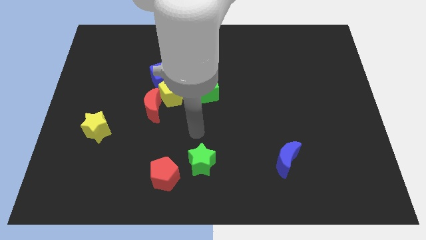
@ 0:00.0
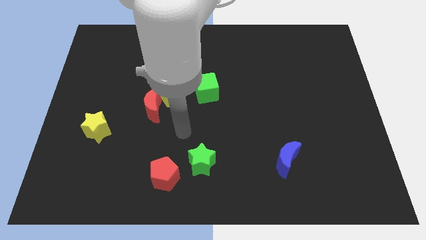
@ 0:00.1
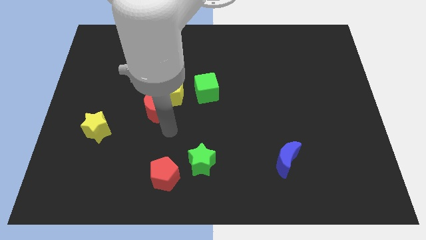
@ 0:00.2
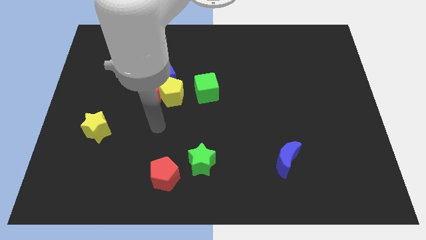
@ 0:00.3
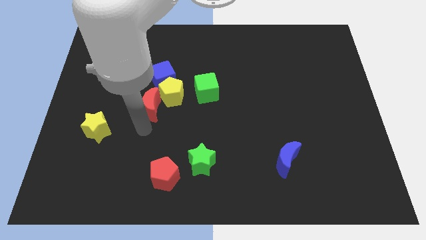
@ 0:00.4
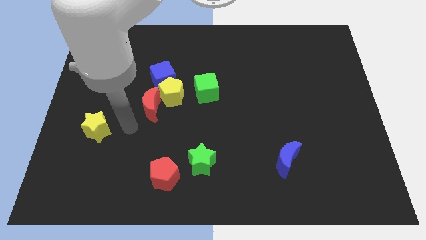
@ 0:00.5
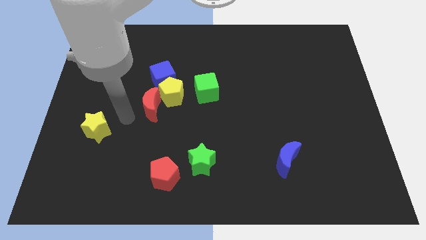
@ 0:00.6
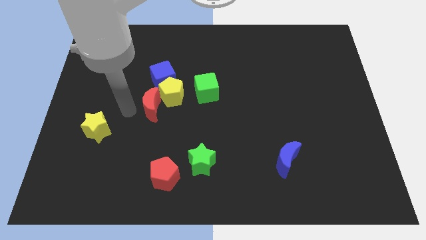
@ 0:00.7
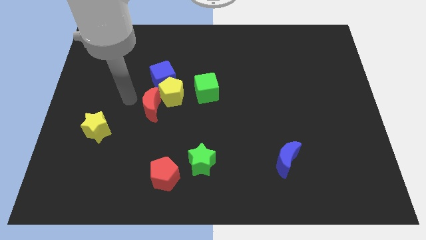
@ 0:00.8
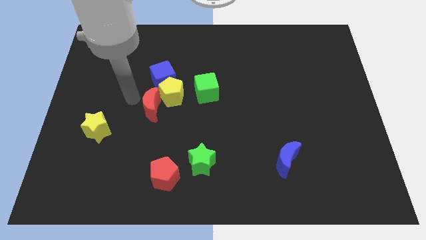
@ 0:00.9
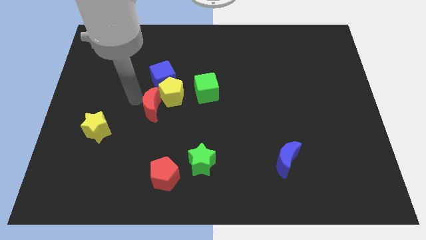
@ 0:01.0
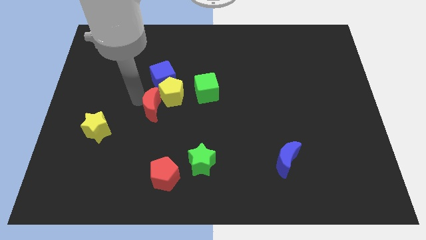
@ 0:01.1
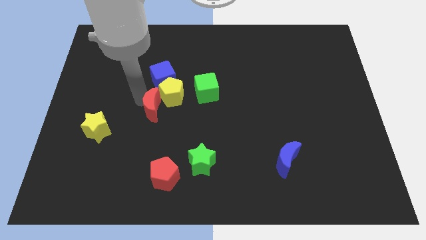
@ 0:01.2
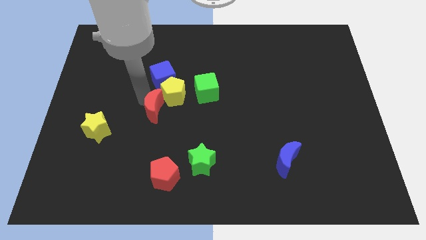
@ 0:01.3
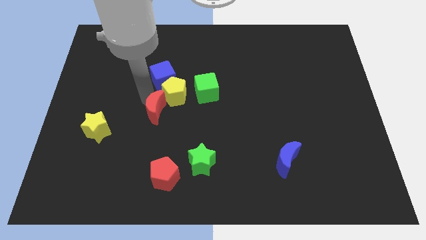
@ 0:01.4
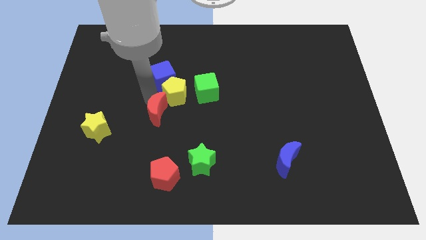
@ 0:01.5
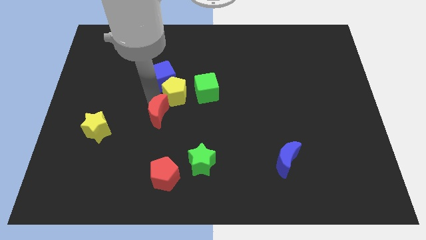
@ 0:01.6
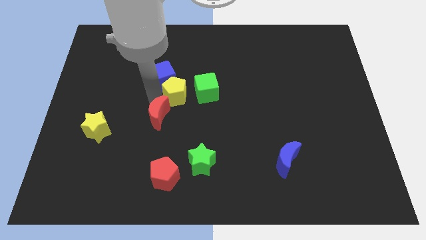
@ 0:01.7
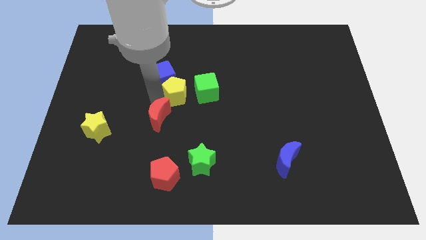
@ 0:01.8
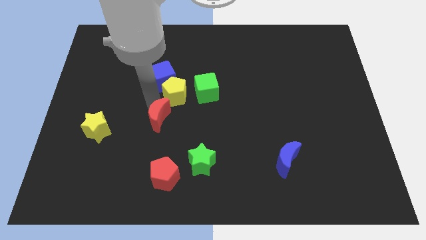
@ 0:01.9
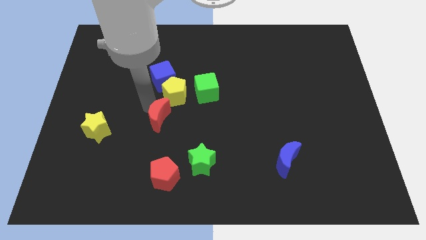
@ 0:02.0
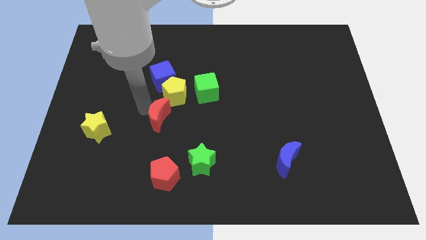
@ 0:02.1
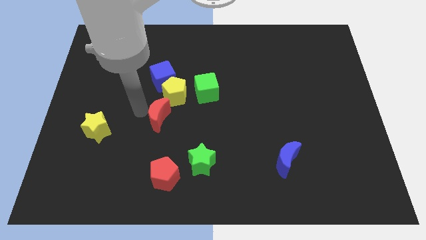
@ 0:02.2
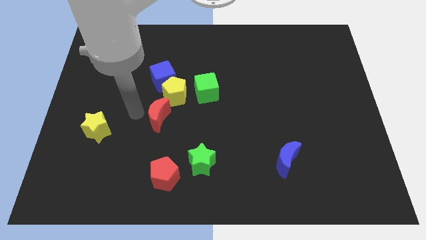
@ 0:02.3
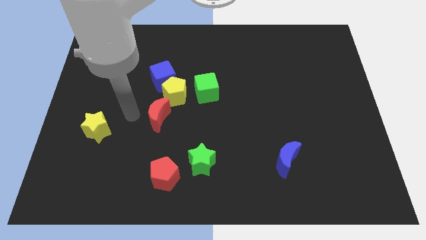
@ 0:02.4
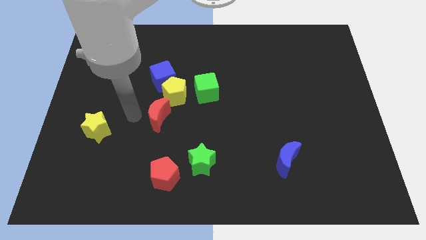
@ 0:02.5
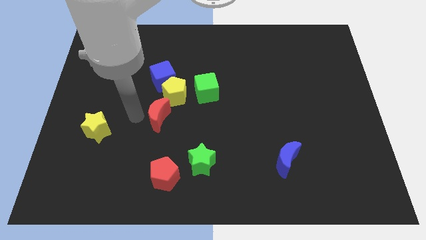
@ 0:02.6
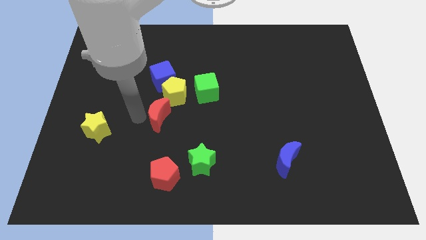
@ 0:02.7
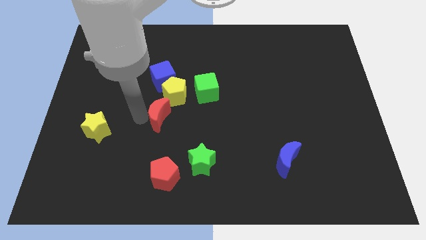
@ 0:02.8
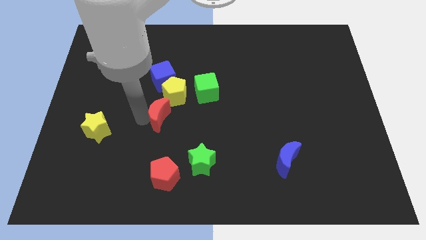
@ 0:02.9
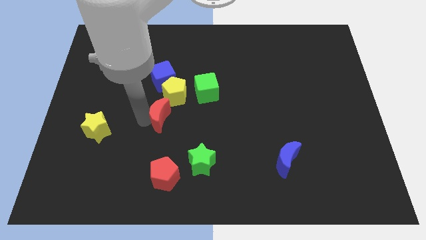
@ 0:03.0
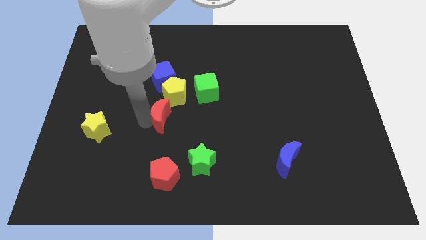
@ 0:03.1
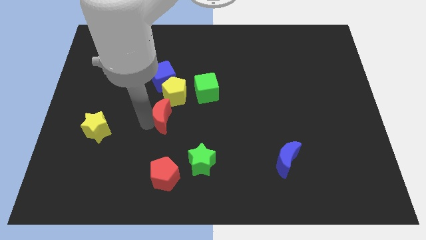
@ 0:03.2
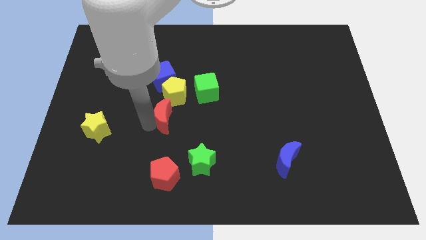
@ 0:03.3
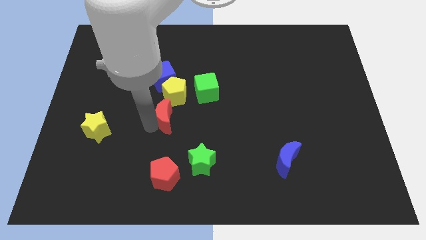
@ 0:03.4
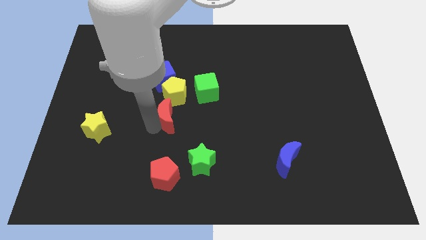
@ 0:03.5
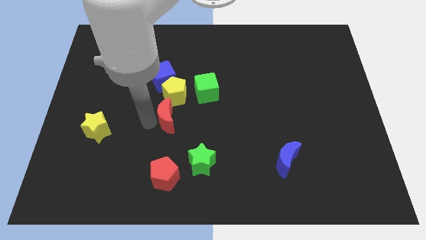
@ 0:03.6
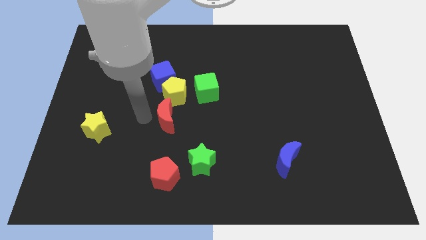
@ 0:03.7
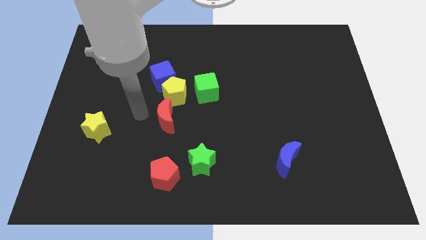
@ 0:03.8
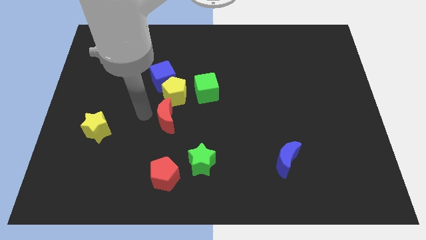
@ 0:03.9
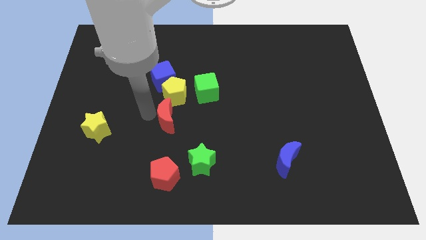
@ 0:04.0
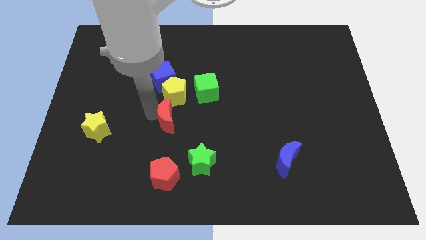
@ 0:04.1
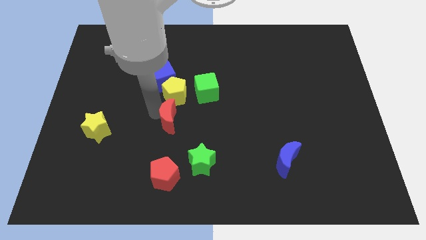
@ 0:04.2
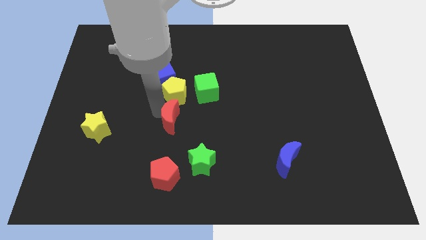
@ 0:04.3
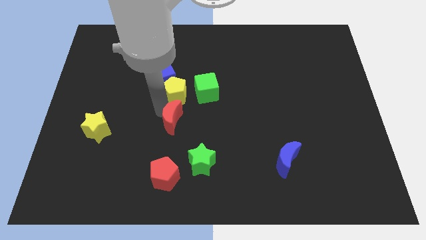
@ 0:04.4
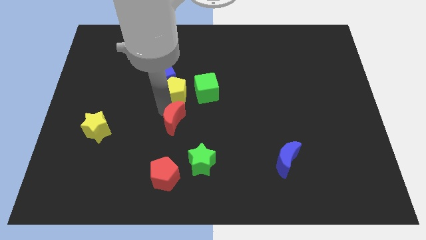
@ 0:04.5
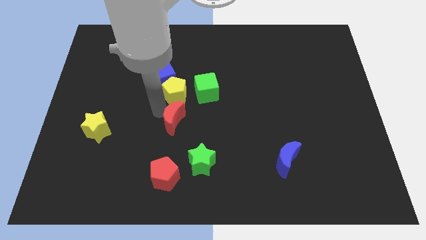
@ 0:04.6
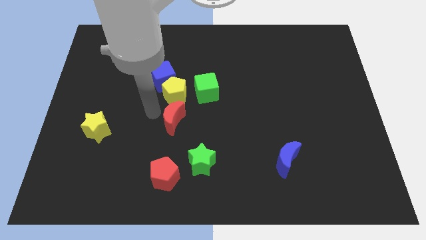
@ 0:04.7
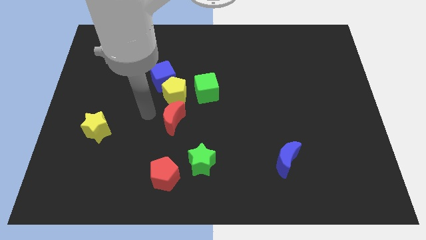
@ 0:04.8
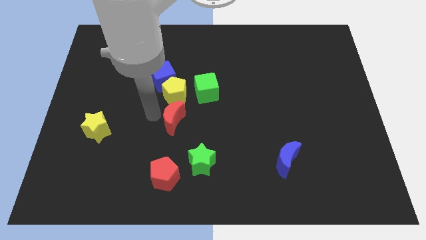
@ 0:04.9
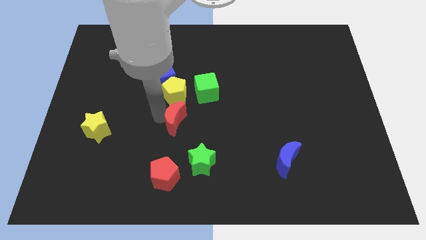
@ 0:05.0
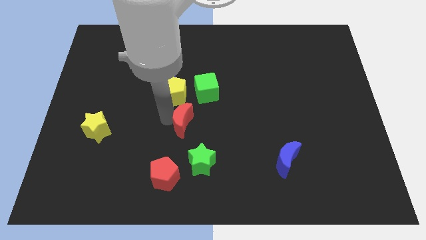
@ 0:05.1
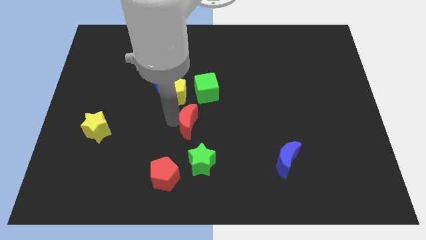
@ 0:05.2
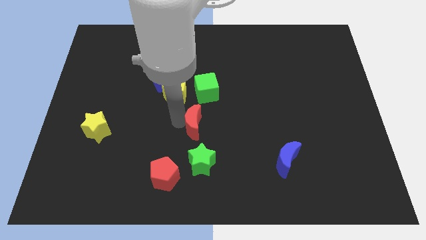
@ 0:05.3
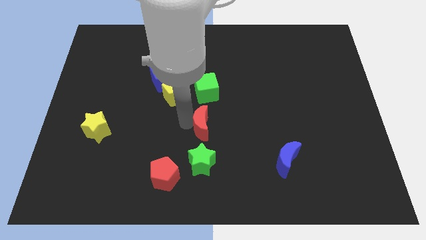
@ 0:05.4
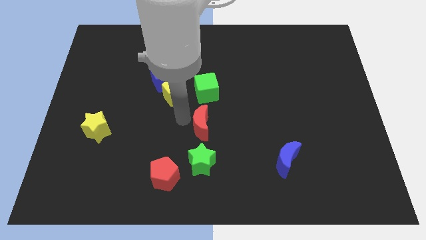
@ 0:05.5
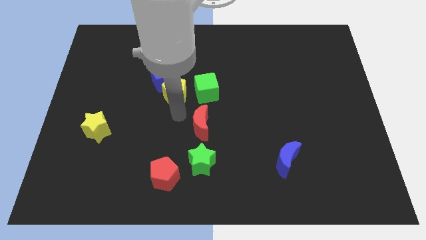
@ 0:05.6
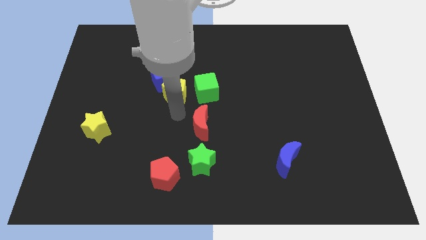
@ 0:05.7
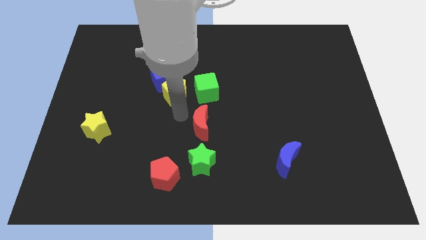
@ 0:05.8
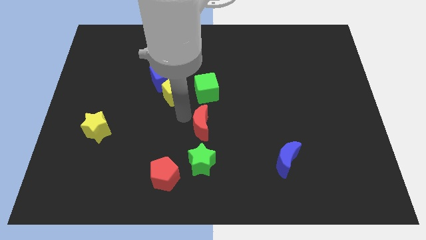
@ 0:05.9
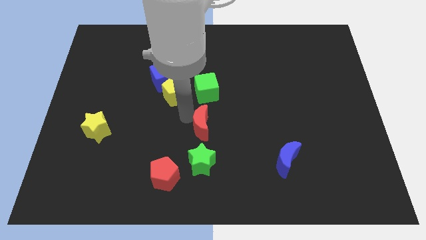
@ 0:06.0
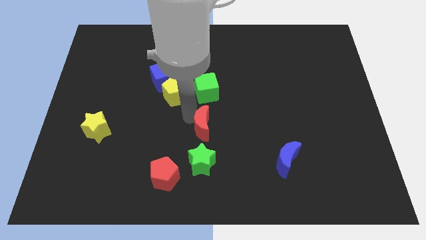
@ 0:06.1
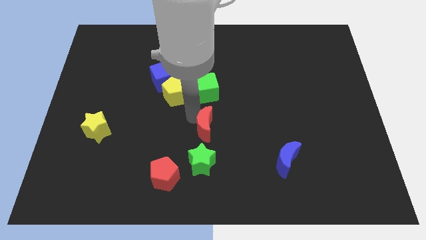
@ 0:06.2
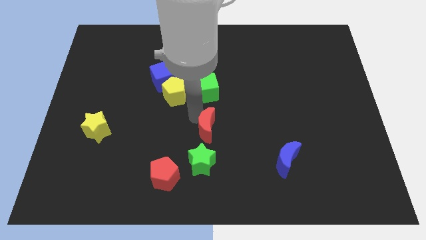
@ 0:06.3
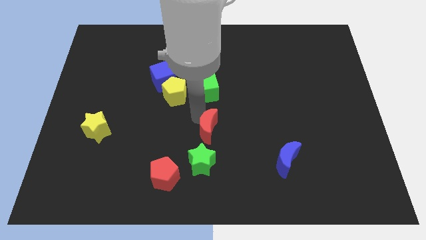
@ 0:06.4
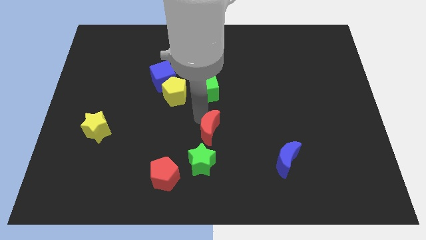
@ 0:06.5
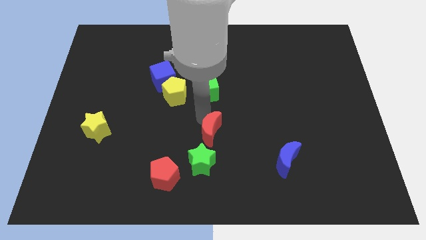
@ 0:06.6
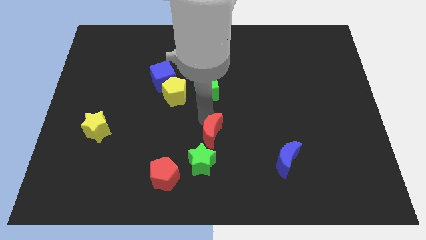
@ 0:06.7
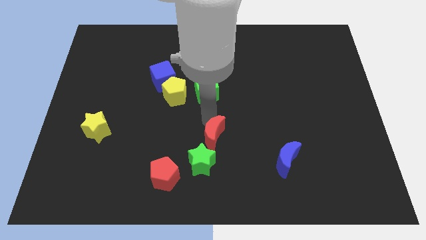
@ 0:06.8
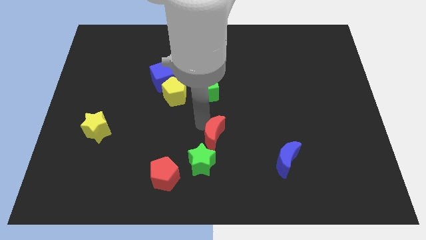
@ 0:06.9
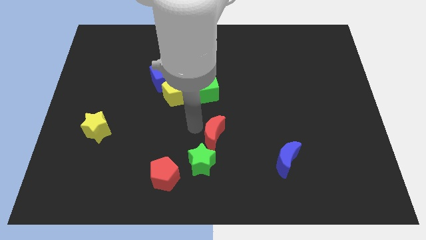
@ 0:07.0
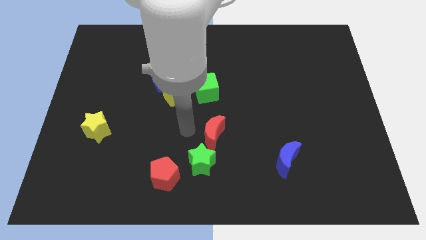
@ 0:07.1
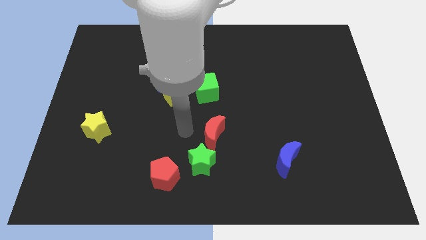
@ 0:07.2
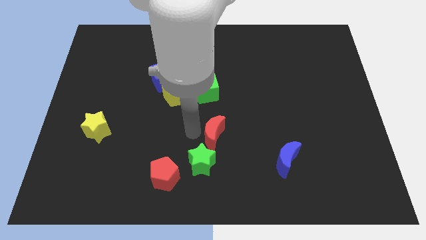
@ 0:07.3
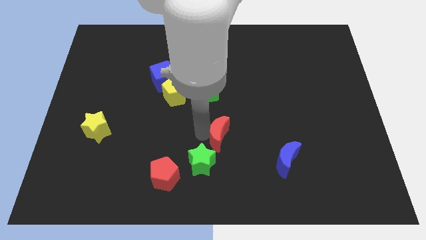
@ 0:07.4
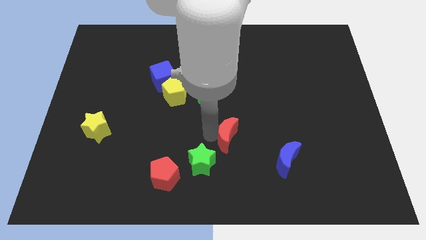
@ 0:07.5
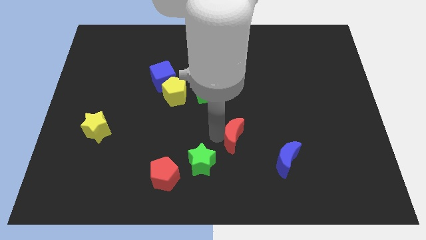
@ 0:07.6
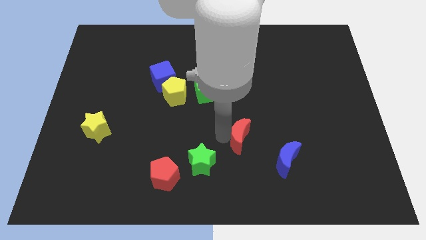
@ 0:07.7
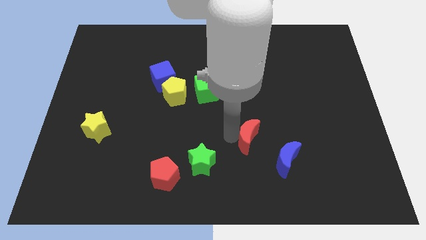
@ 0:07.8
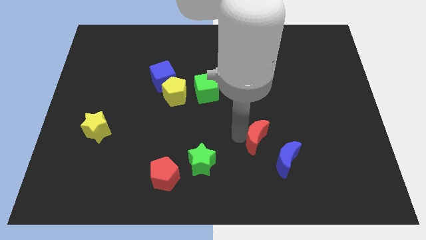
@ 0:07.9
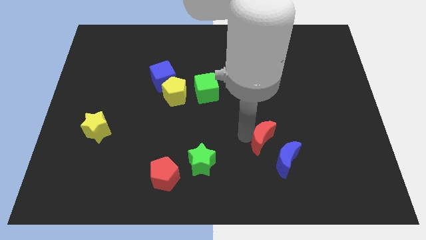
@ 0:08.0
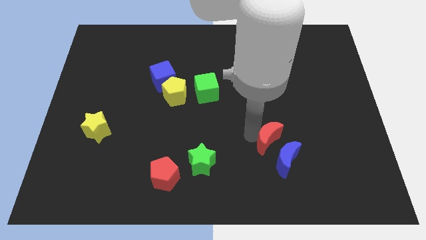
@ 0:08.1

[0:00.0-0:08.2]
put the red moon close to the blue moon
